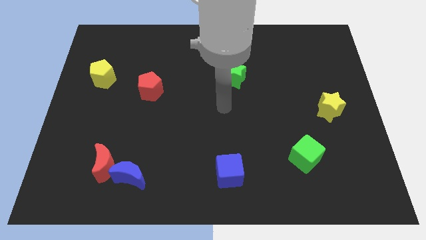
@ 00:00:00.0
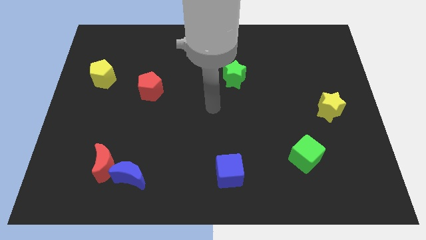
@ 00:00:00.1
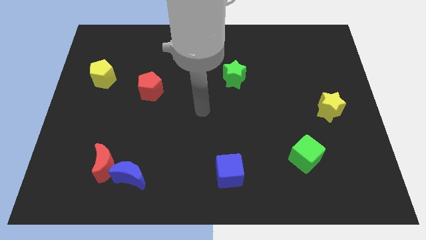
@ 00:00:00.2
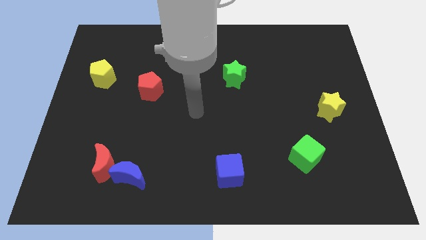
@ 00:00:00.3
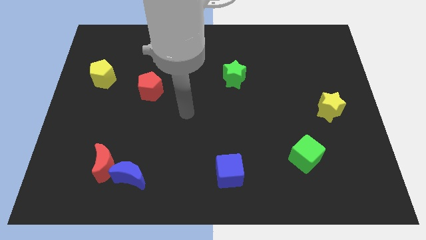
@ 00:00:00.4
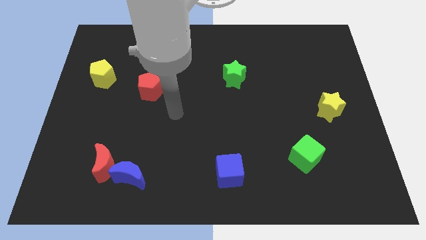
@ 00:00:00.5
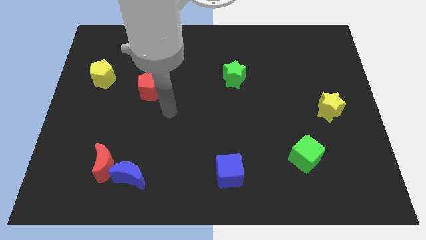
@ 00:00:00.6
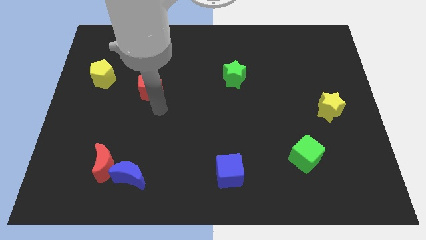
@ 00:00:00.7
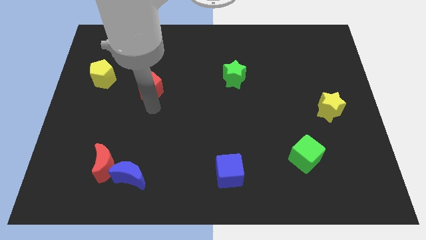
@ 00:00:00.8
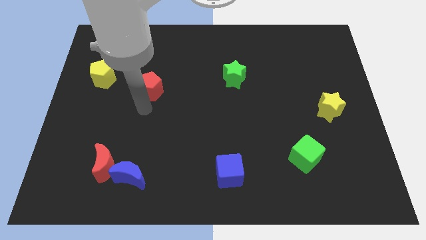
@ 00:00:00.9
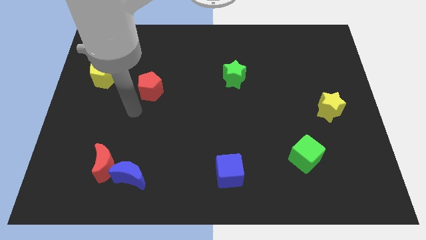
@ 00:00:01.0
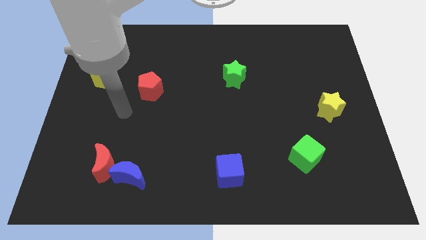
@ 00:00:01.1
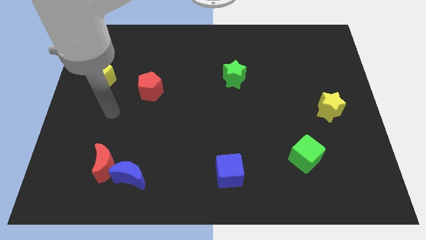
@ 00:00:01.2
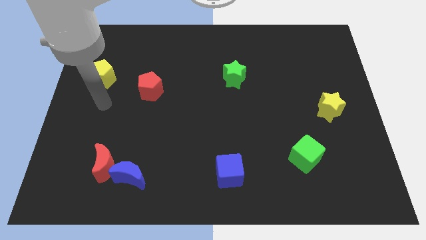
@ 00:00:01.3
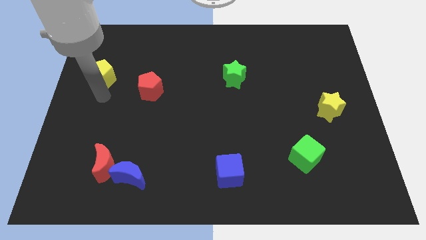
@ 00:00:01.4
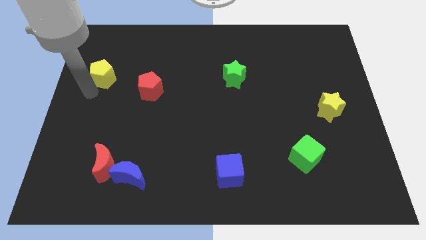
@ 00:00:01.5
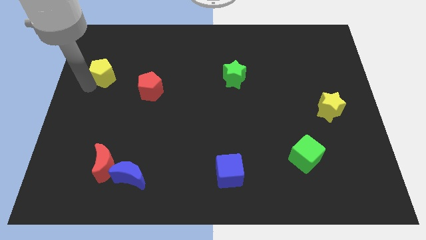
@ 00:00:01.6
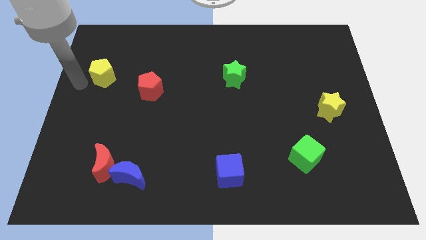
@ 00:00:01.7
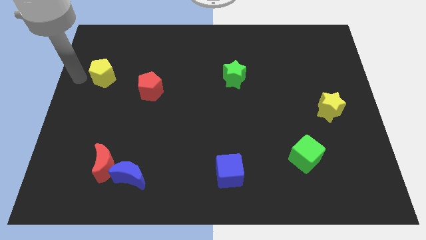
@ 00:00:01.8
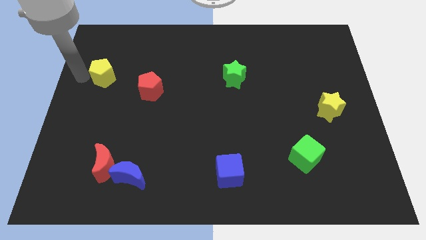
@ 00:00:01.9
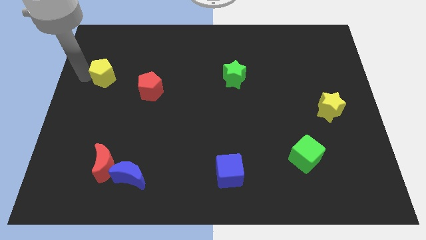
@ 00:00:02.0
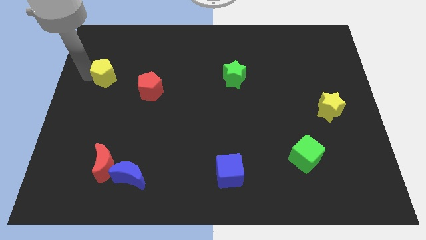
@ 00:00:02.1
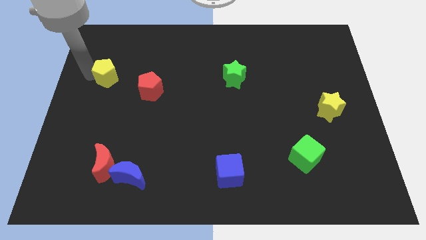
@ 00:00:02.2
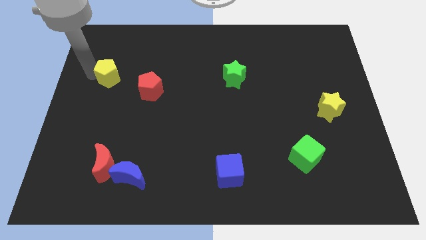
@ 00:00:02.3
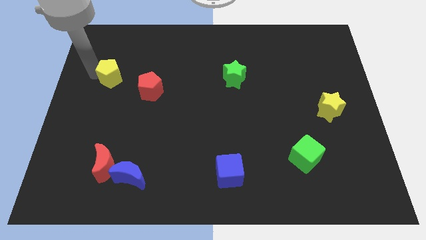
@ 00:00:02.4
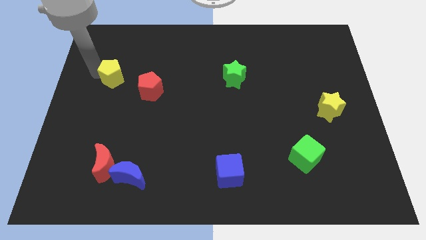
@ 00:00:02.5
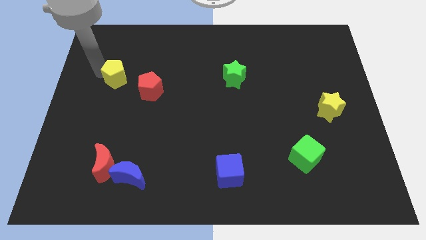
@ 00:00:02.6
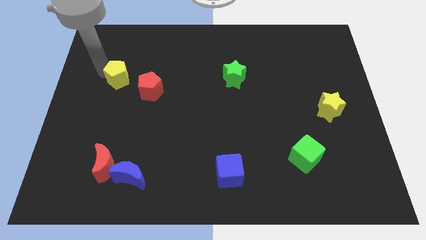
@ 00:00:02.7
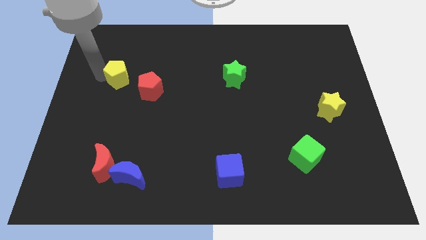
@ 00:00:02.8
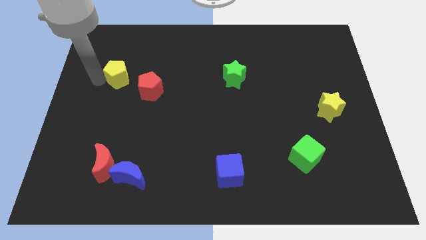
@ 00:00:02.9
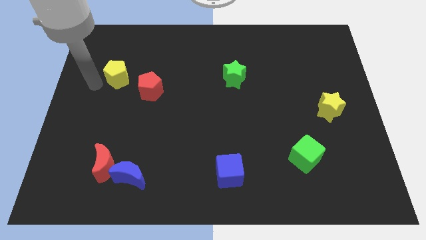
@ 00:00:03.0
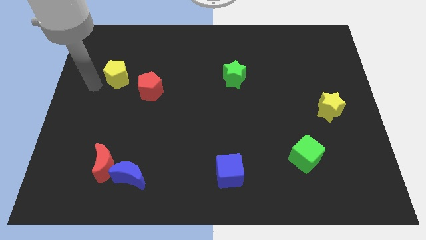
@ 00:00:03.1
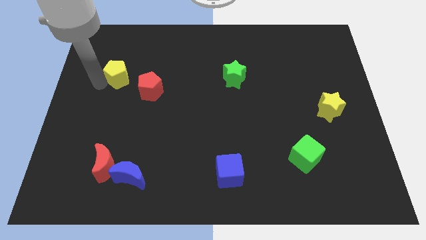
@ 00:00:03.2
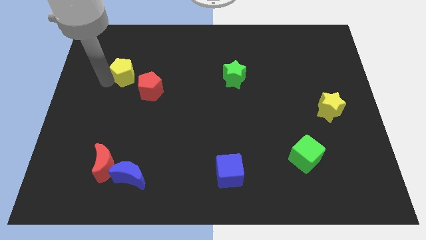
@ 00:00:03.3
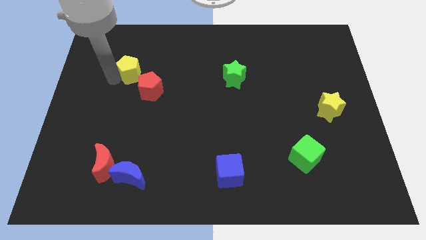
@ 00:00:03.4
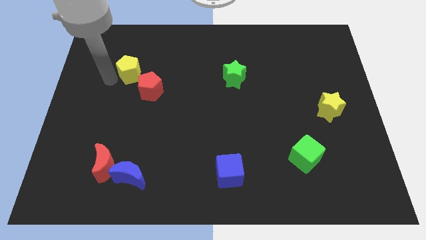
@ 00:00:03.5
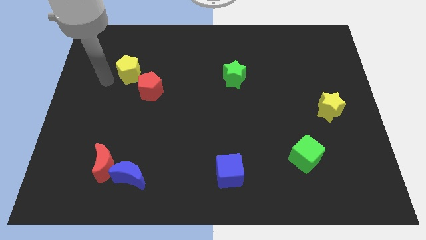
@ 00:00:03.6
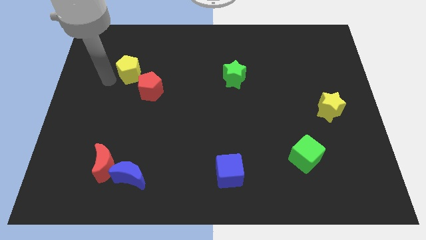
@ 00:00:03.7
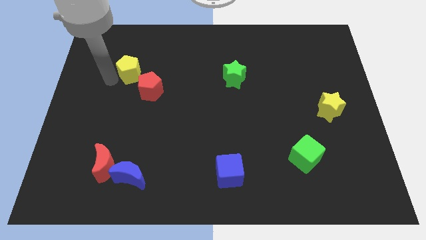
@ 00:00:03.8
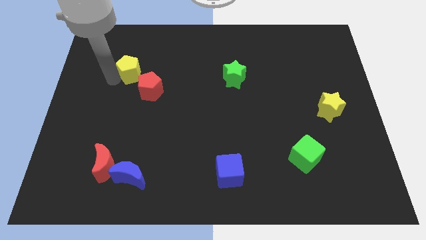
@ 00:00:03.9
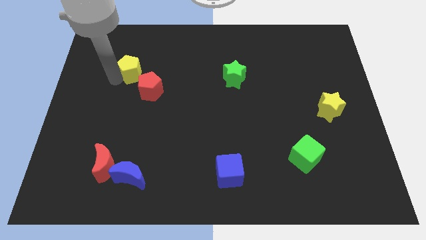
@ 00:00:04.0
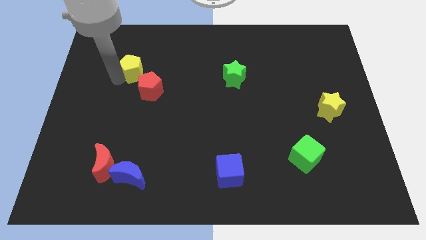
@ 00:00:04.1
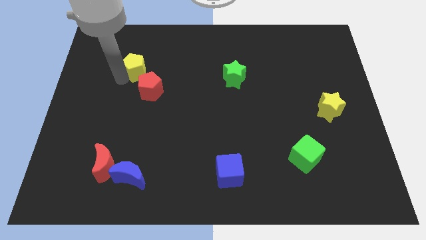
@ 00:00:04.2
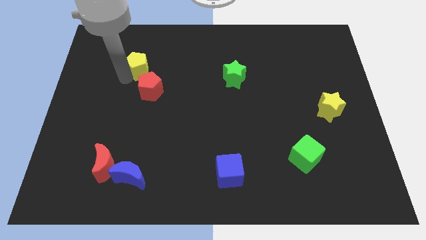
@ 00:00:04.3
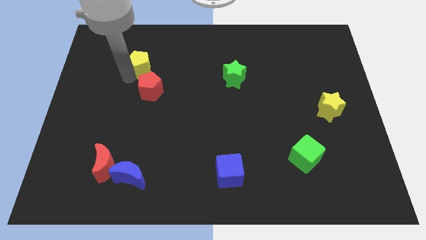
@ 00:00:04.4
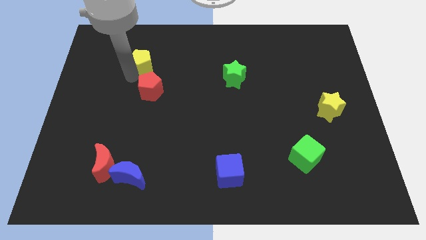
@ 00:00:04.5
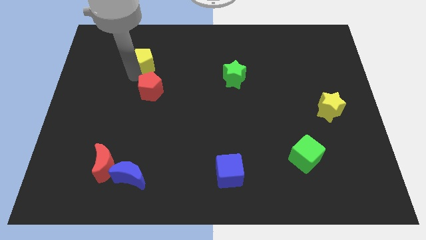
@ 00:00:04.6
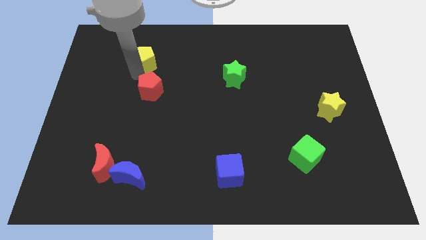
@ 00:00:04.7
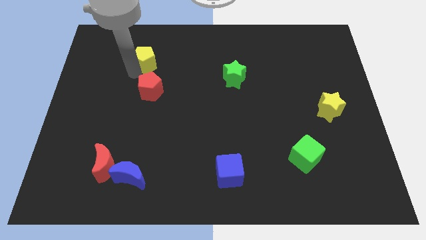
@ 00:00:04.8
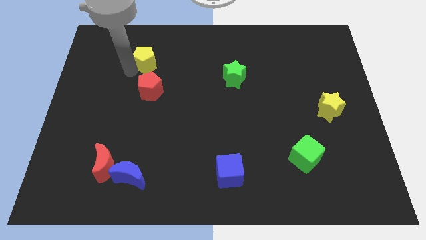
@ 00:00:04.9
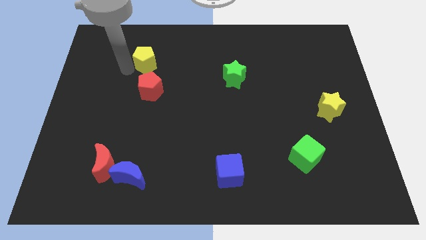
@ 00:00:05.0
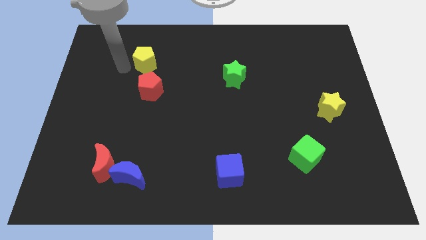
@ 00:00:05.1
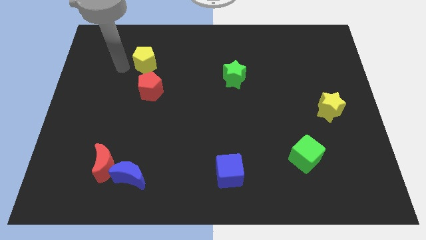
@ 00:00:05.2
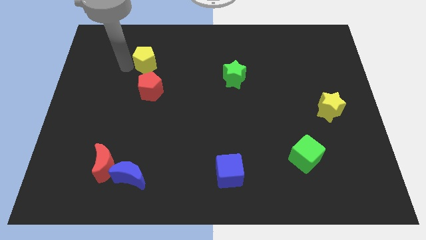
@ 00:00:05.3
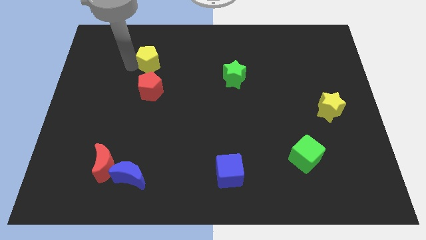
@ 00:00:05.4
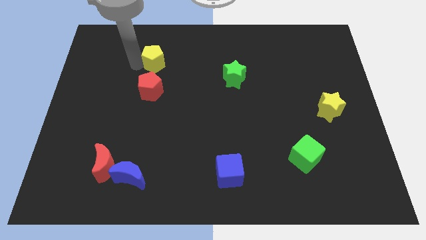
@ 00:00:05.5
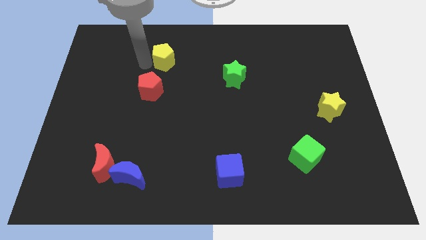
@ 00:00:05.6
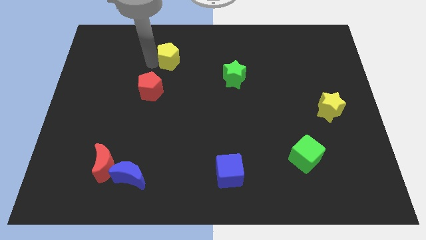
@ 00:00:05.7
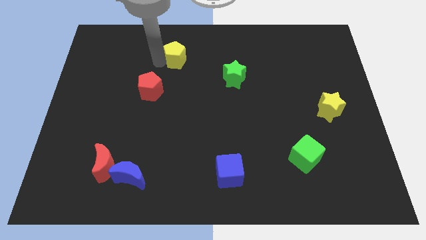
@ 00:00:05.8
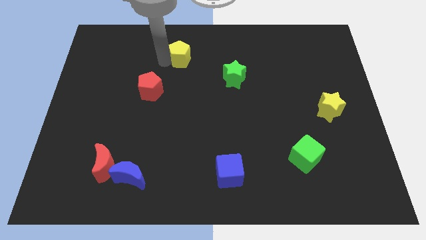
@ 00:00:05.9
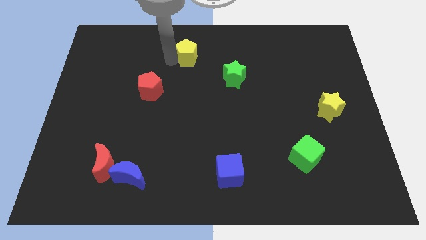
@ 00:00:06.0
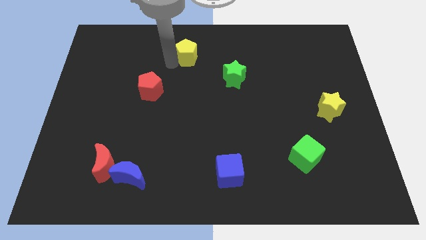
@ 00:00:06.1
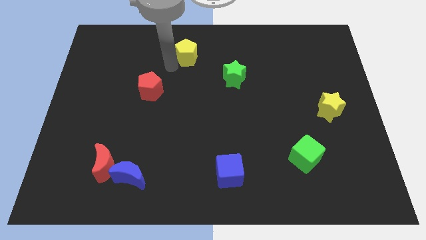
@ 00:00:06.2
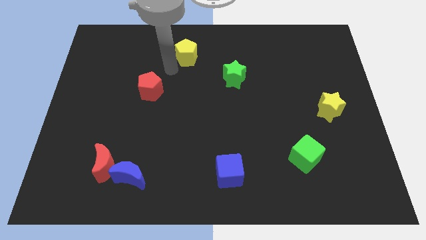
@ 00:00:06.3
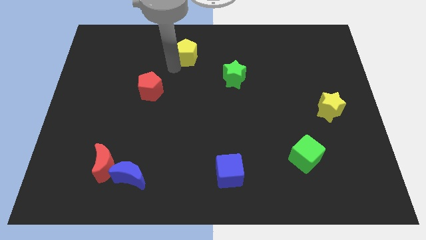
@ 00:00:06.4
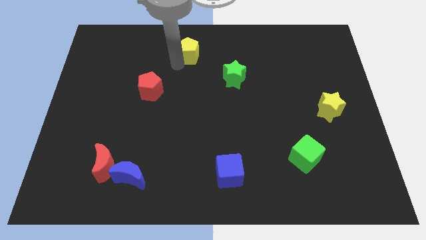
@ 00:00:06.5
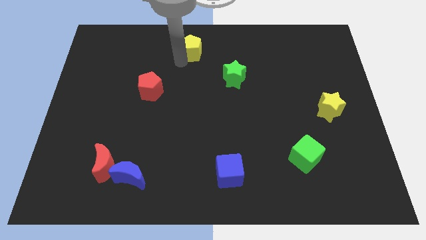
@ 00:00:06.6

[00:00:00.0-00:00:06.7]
slide the yellow pentagon to the towards your base
